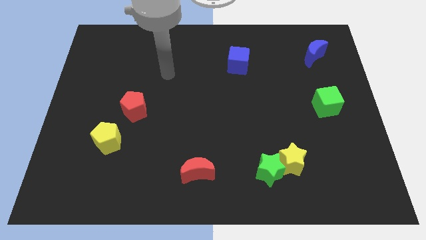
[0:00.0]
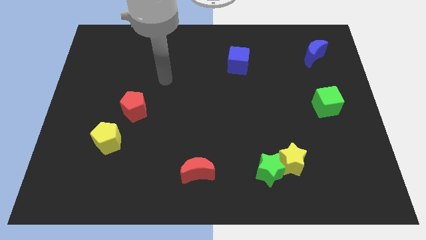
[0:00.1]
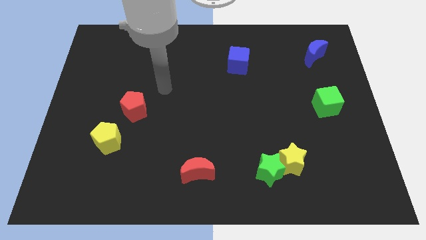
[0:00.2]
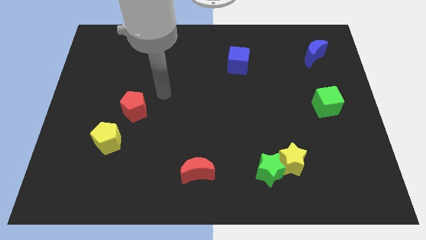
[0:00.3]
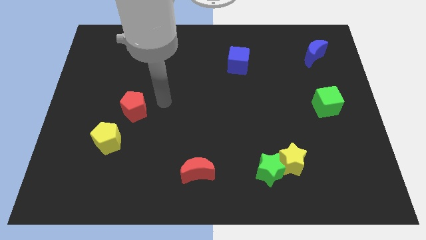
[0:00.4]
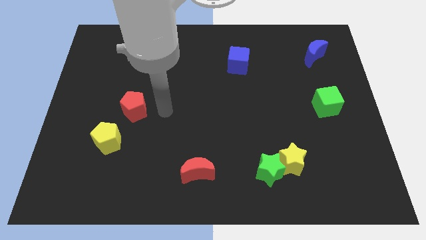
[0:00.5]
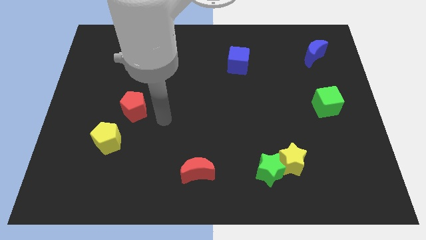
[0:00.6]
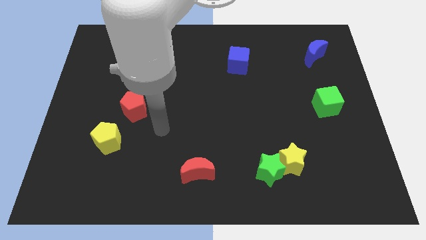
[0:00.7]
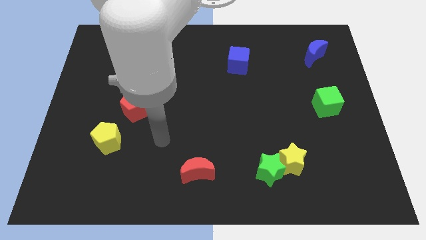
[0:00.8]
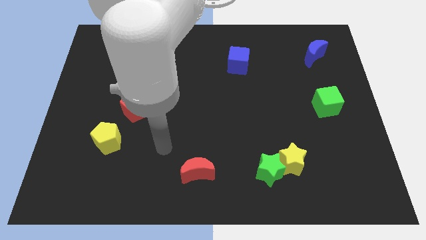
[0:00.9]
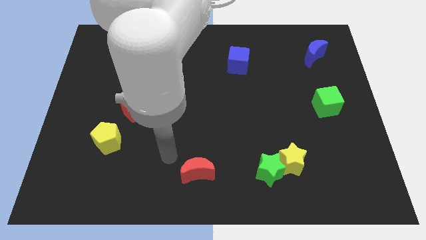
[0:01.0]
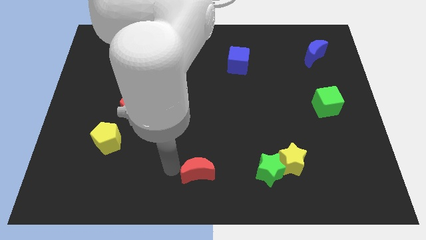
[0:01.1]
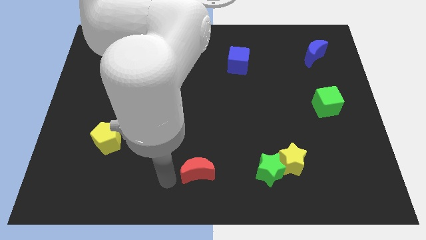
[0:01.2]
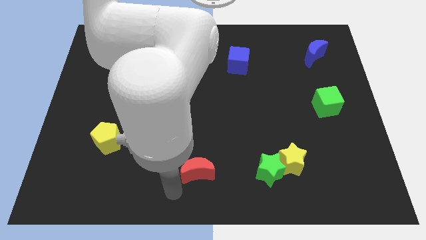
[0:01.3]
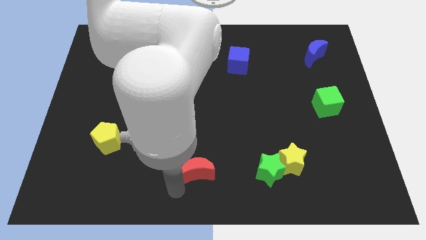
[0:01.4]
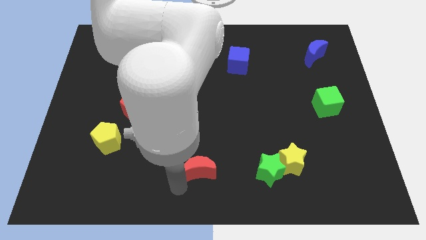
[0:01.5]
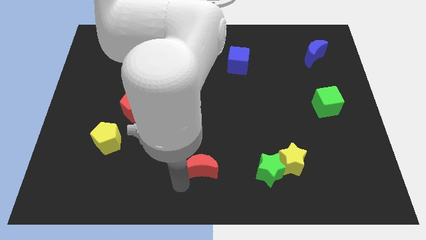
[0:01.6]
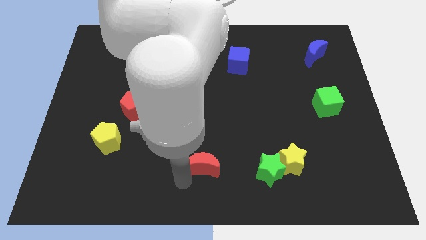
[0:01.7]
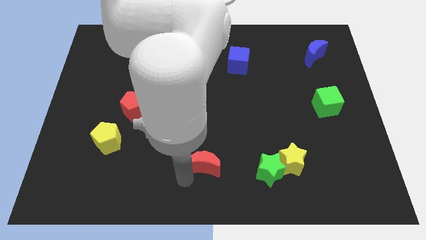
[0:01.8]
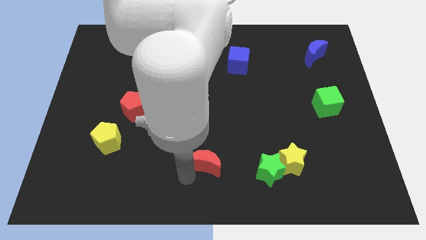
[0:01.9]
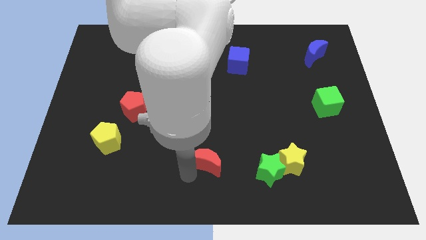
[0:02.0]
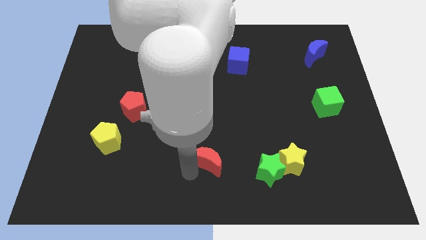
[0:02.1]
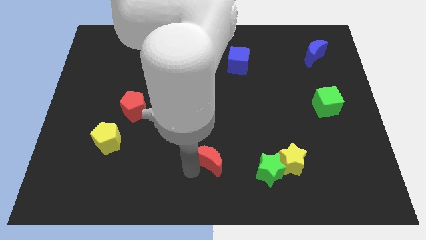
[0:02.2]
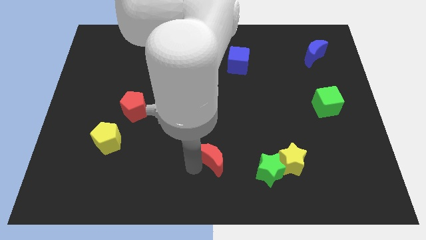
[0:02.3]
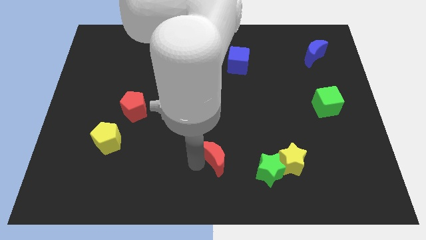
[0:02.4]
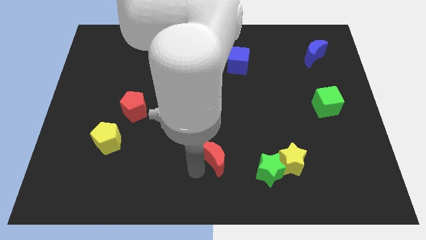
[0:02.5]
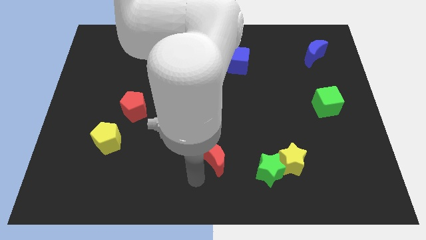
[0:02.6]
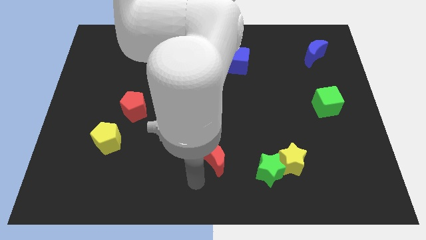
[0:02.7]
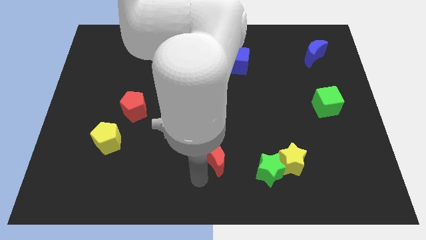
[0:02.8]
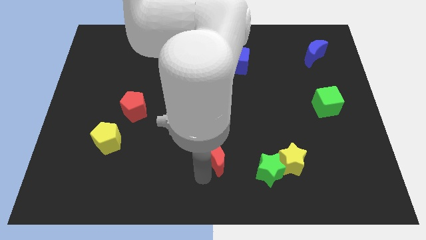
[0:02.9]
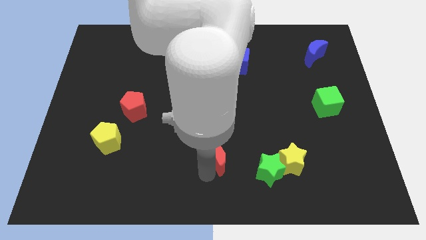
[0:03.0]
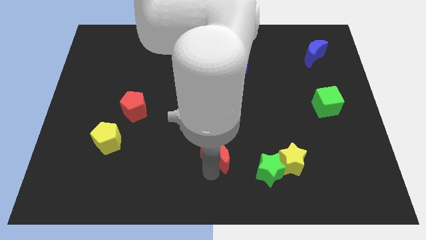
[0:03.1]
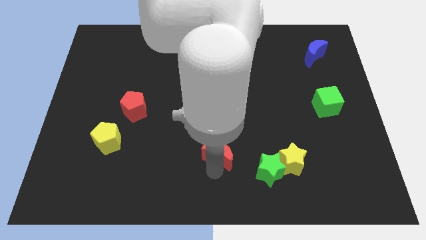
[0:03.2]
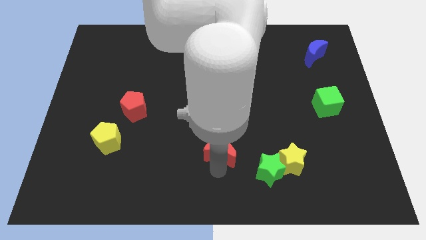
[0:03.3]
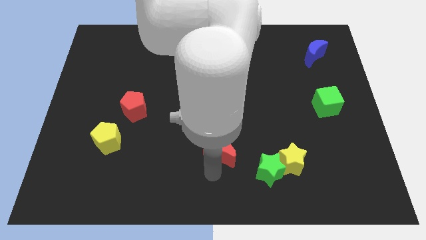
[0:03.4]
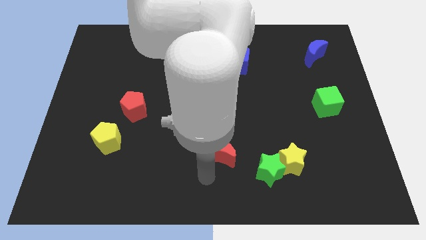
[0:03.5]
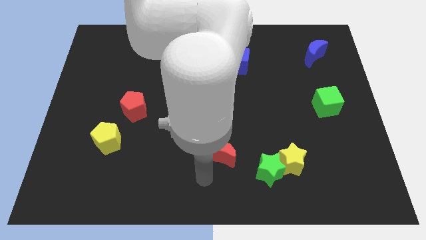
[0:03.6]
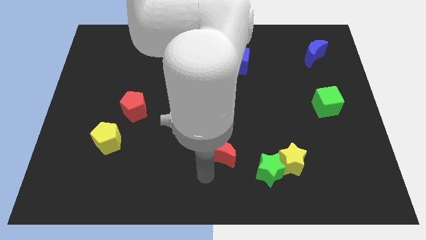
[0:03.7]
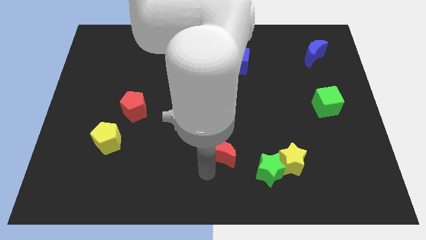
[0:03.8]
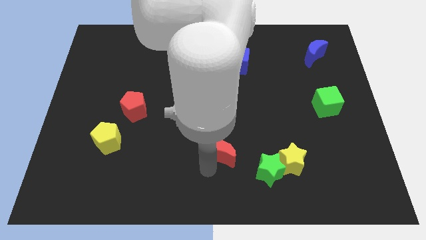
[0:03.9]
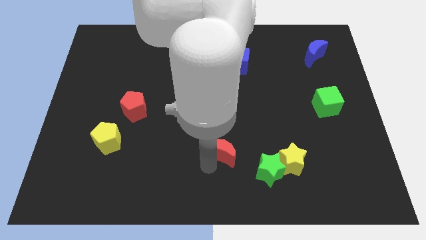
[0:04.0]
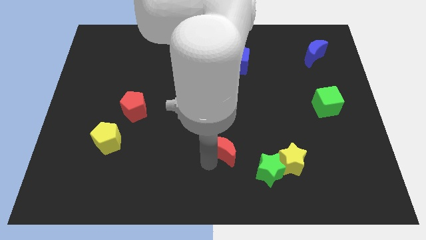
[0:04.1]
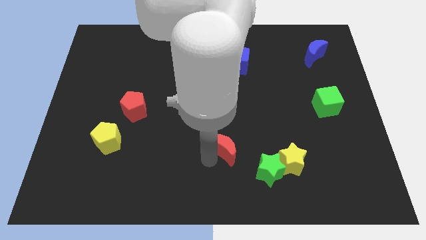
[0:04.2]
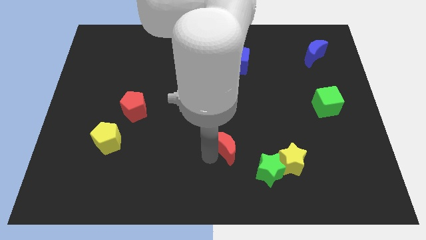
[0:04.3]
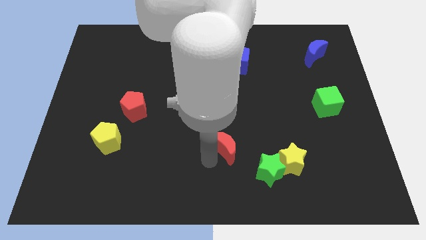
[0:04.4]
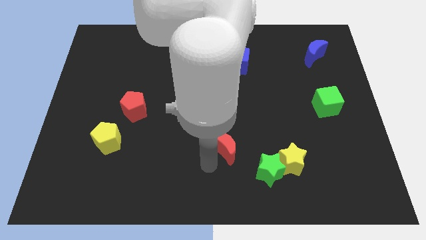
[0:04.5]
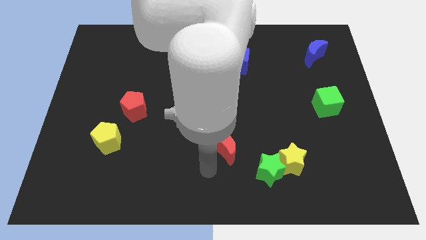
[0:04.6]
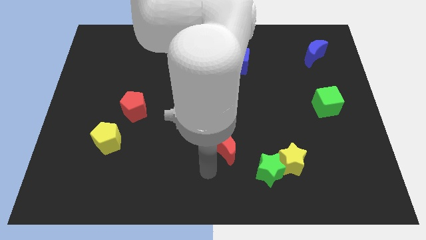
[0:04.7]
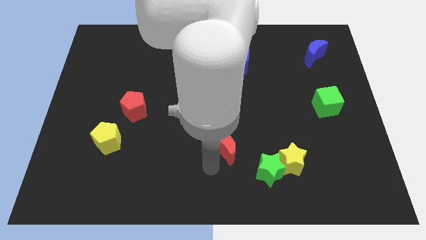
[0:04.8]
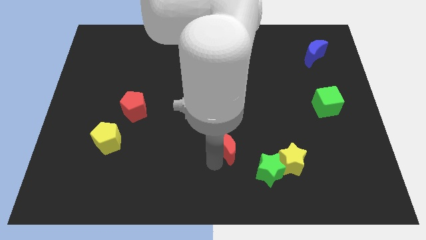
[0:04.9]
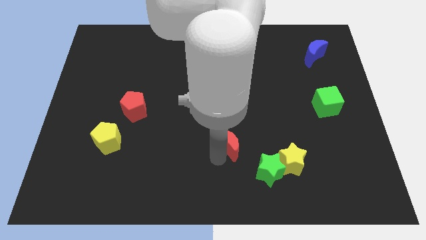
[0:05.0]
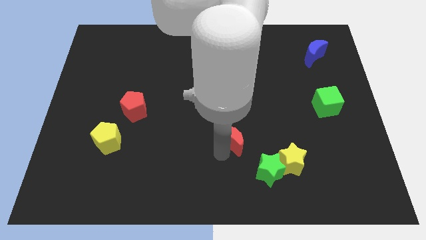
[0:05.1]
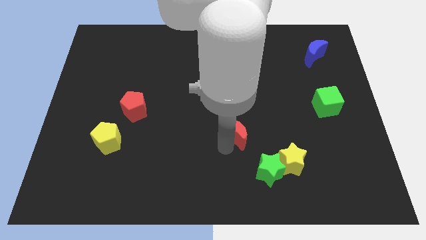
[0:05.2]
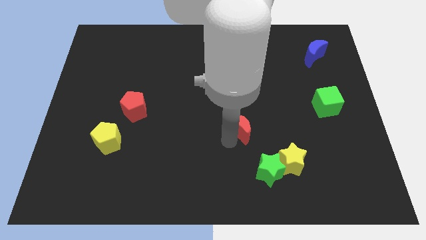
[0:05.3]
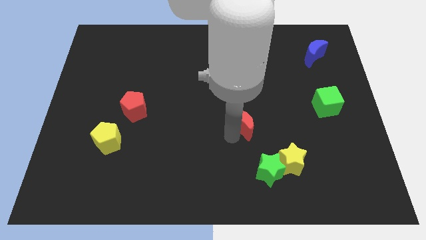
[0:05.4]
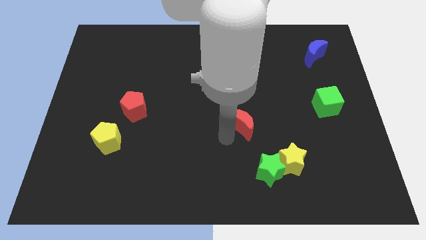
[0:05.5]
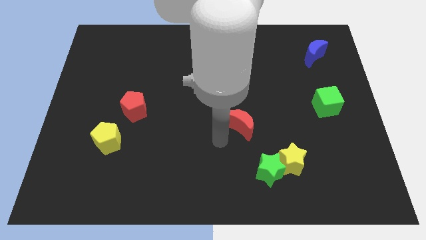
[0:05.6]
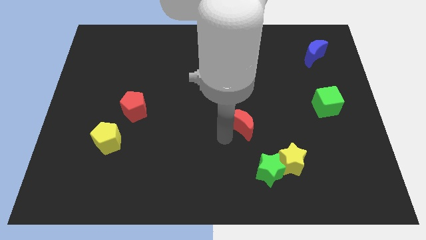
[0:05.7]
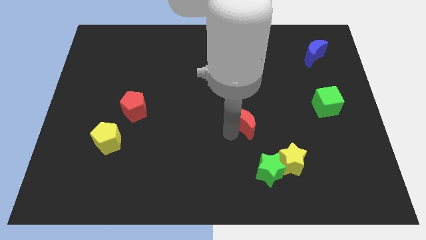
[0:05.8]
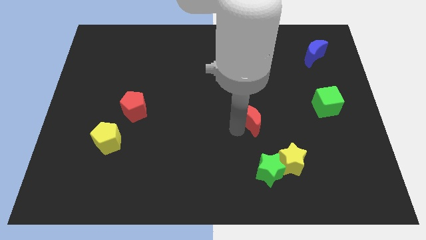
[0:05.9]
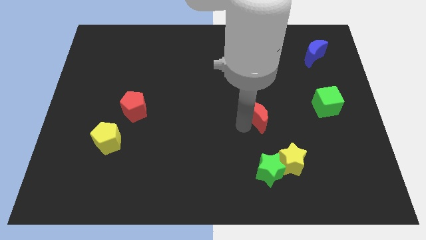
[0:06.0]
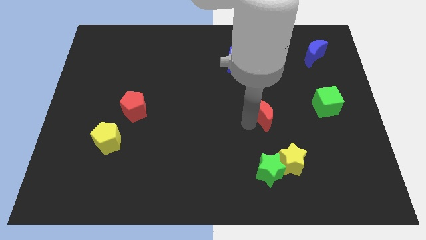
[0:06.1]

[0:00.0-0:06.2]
move the red moon up and right diagonally

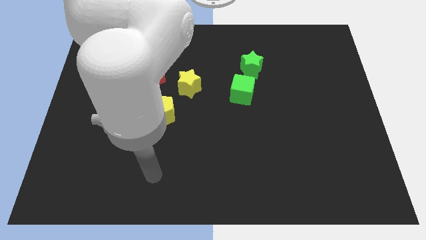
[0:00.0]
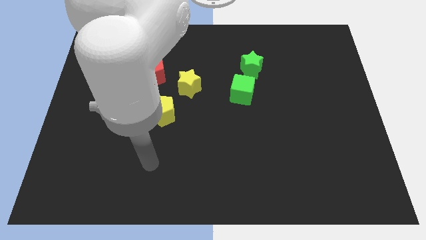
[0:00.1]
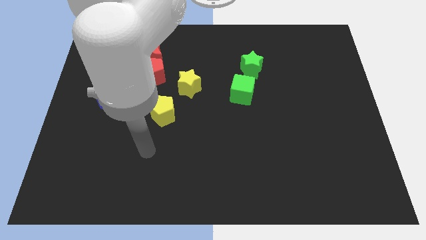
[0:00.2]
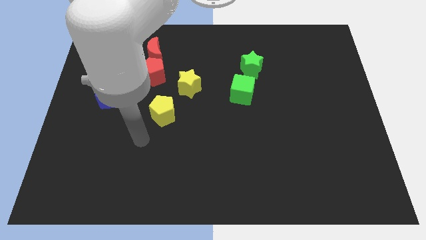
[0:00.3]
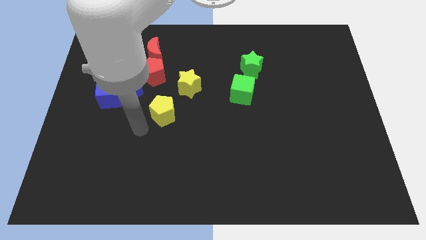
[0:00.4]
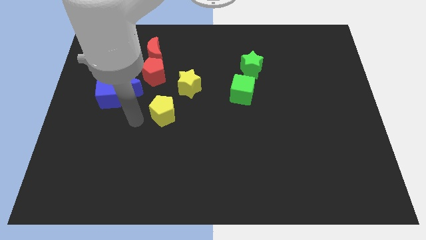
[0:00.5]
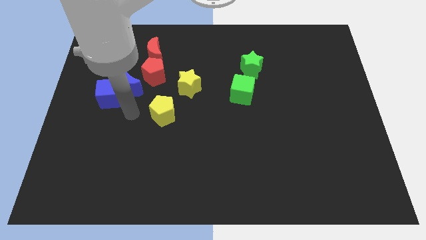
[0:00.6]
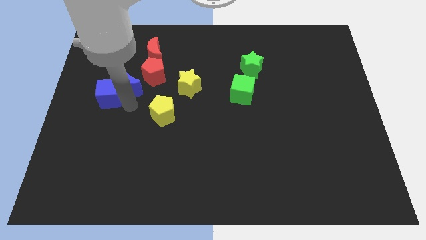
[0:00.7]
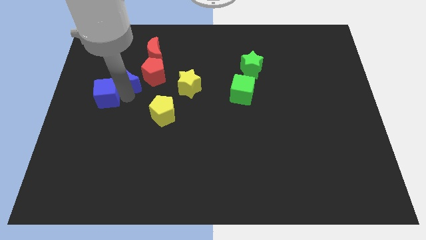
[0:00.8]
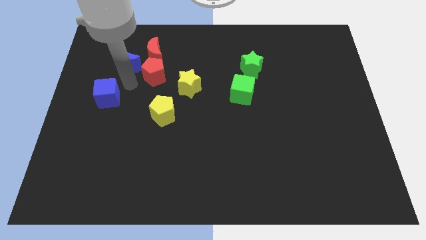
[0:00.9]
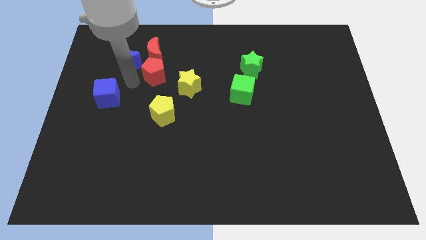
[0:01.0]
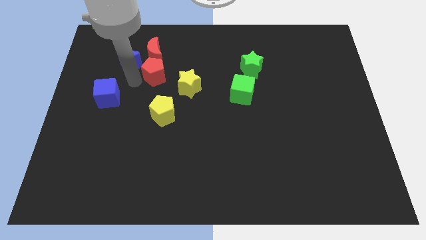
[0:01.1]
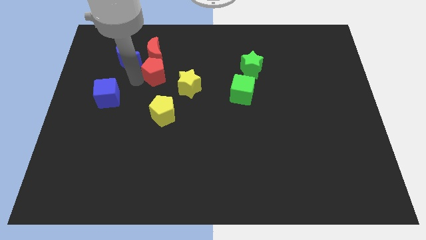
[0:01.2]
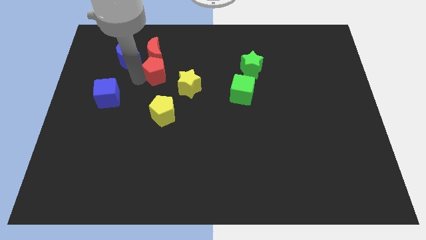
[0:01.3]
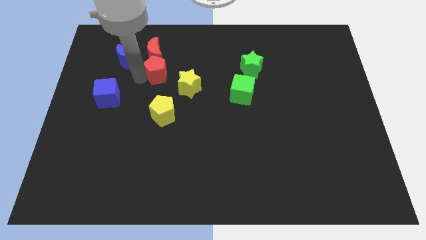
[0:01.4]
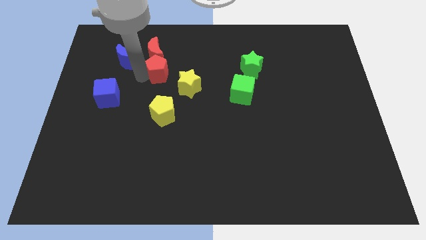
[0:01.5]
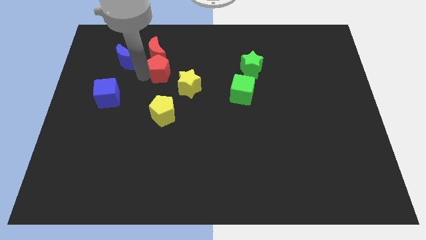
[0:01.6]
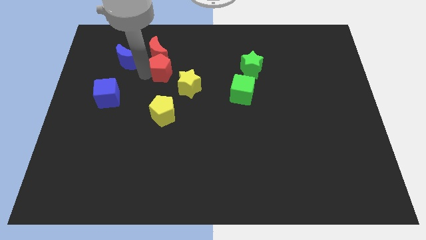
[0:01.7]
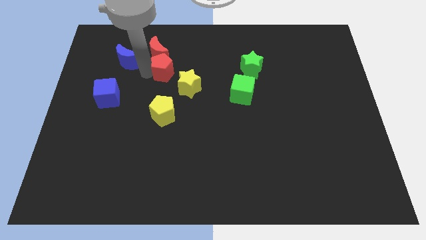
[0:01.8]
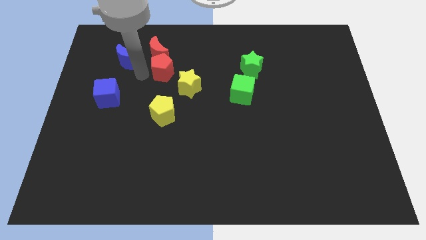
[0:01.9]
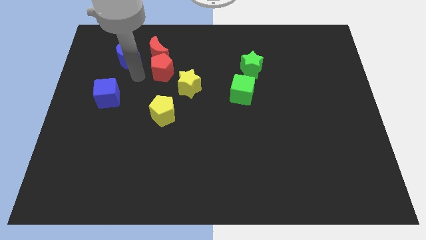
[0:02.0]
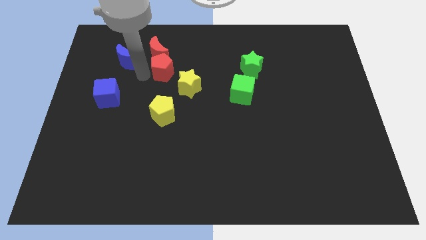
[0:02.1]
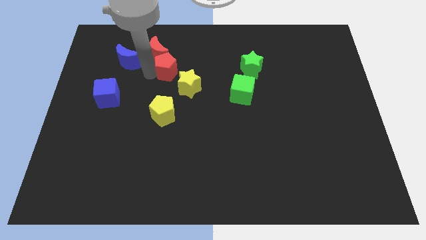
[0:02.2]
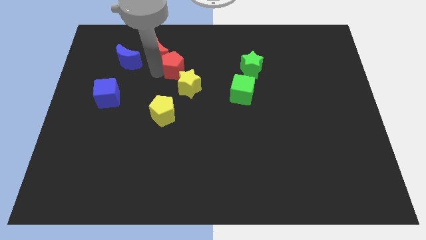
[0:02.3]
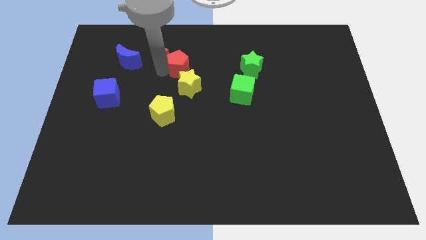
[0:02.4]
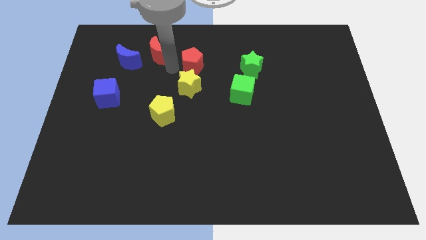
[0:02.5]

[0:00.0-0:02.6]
slightly push the red pentagon right
